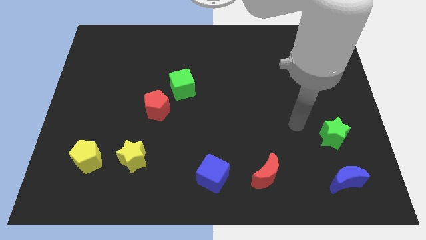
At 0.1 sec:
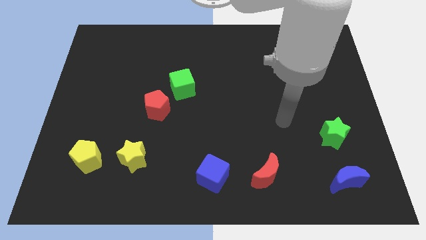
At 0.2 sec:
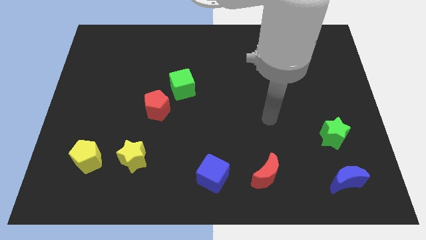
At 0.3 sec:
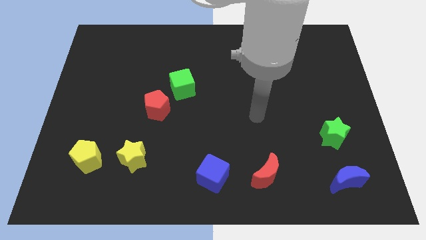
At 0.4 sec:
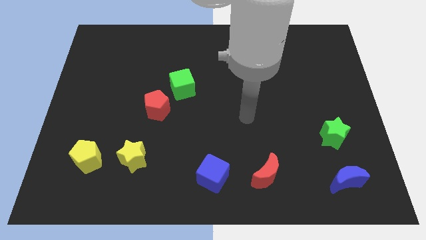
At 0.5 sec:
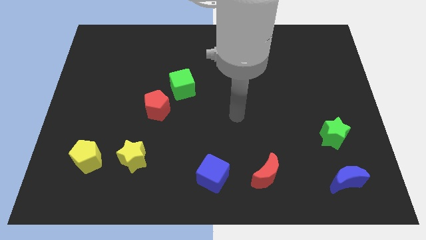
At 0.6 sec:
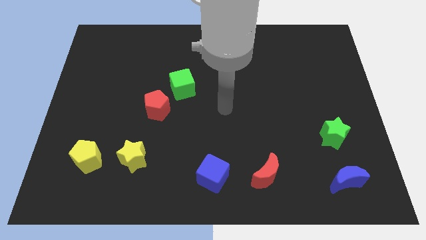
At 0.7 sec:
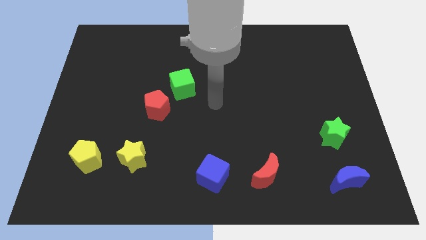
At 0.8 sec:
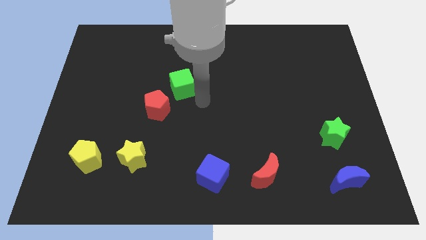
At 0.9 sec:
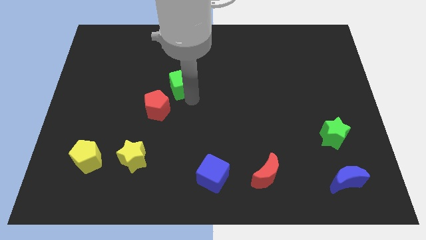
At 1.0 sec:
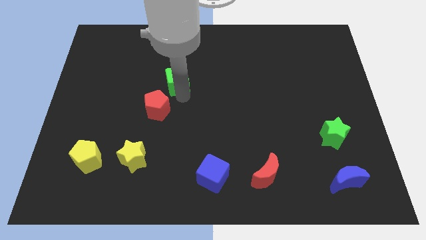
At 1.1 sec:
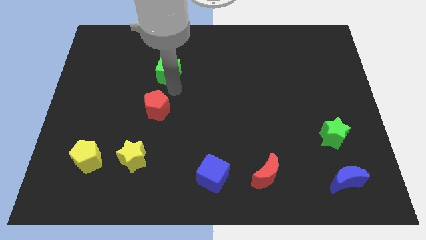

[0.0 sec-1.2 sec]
move the red pentagon away from the green cube

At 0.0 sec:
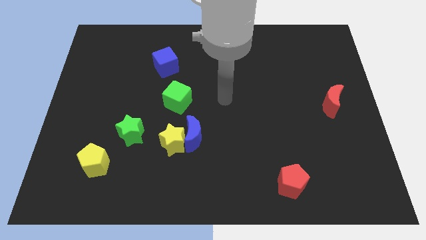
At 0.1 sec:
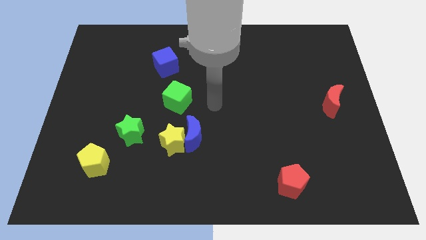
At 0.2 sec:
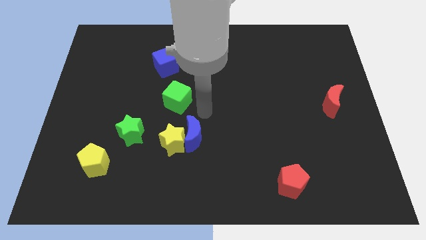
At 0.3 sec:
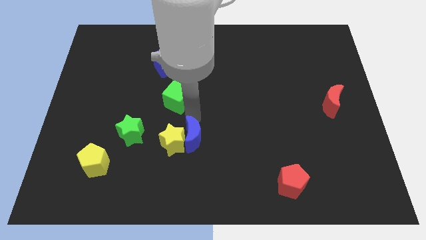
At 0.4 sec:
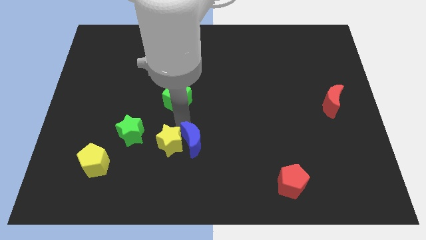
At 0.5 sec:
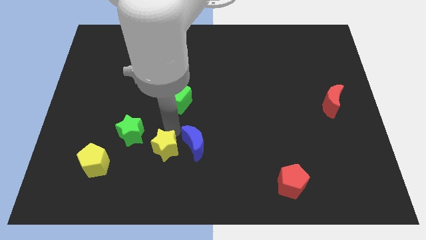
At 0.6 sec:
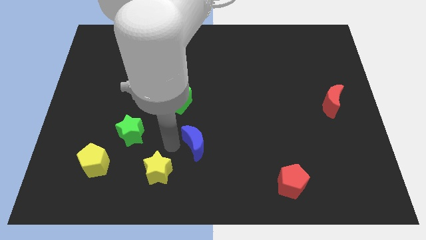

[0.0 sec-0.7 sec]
pull the blue moon apart from the yellow star

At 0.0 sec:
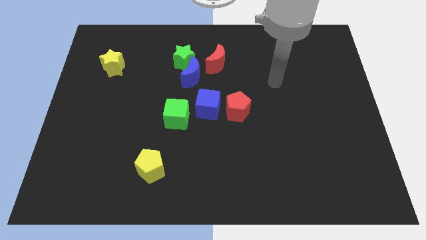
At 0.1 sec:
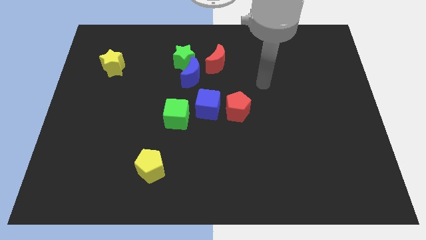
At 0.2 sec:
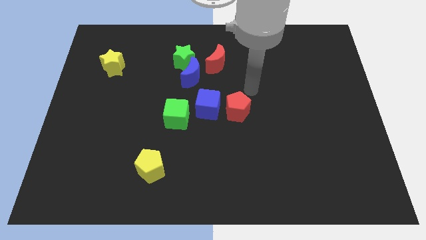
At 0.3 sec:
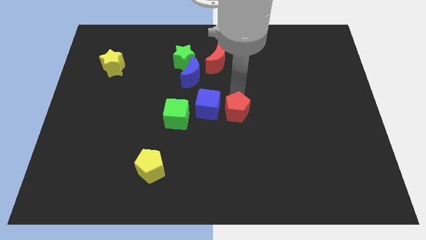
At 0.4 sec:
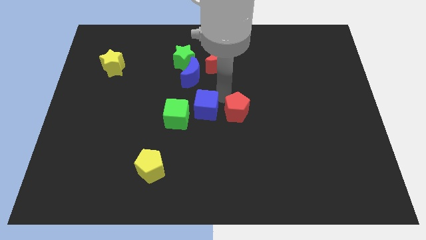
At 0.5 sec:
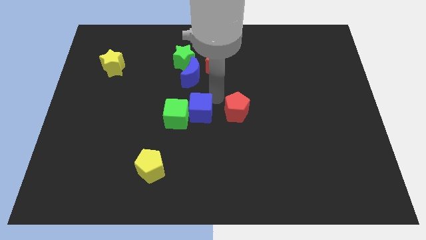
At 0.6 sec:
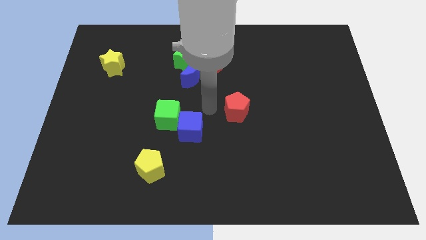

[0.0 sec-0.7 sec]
separate the red pentagon from the blue cube

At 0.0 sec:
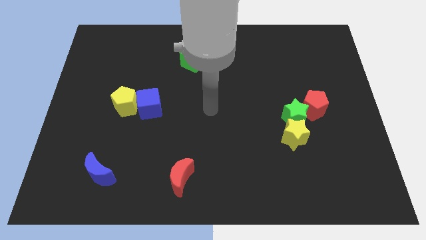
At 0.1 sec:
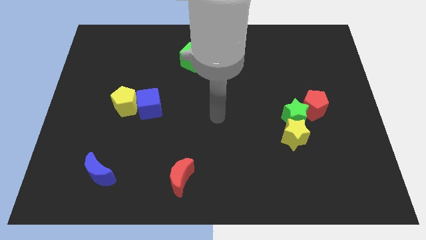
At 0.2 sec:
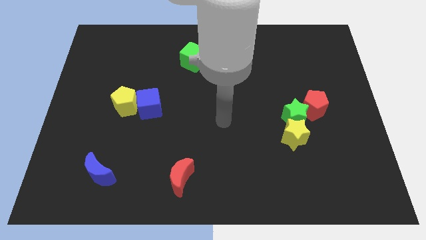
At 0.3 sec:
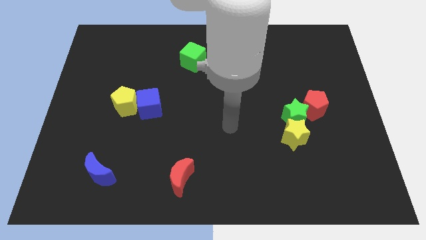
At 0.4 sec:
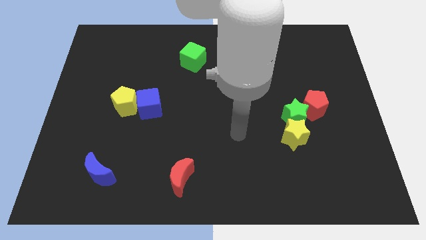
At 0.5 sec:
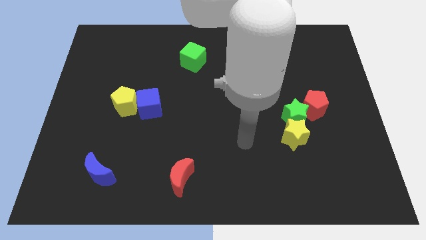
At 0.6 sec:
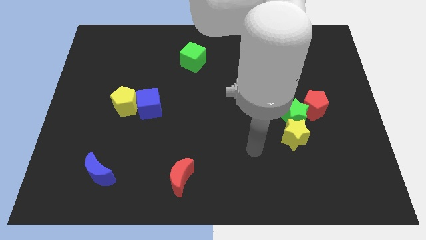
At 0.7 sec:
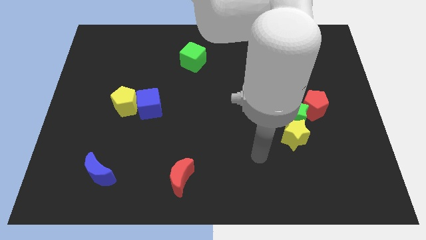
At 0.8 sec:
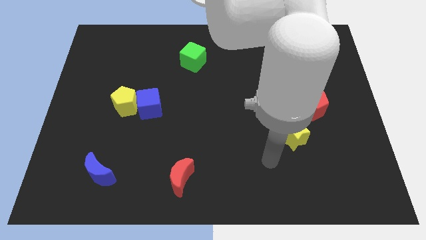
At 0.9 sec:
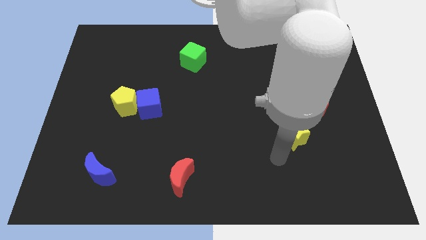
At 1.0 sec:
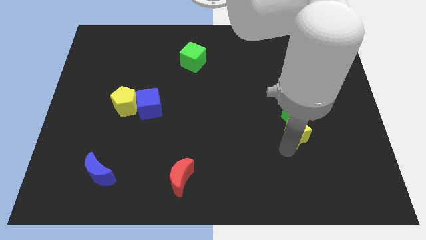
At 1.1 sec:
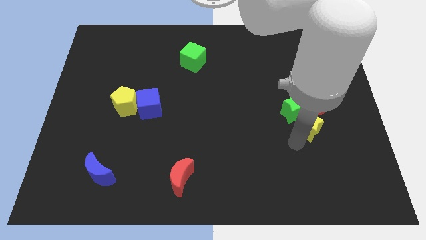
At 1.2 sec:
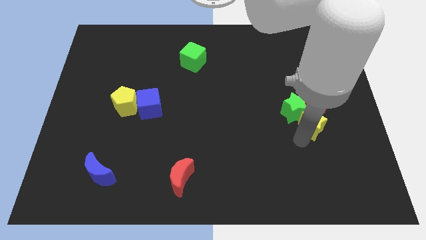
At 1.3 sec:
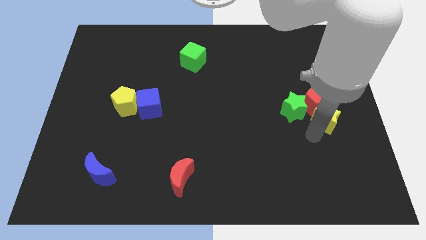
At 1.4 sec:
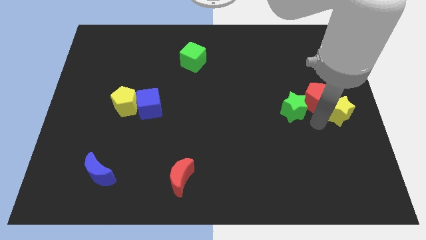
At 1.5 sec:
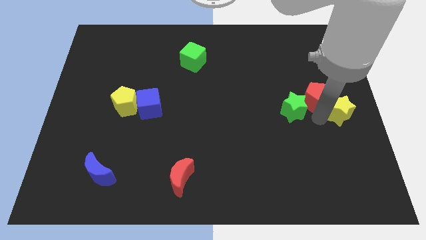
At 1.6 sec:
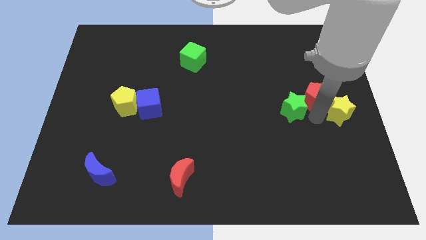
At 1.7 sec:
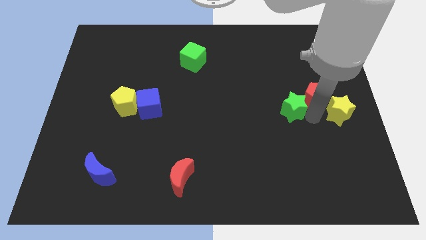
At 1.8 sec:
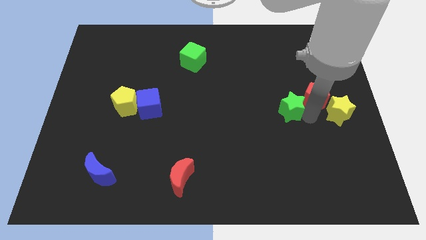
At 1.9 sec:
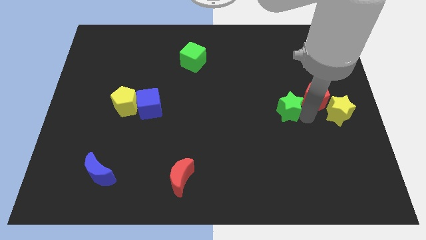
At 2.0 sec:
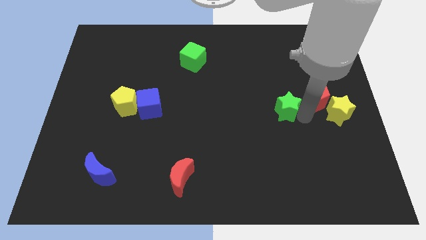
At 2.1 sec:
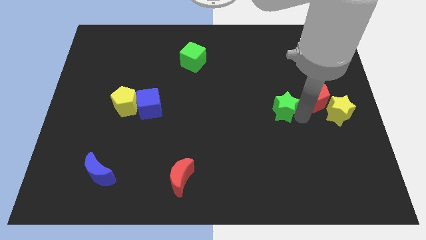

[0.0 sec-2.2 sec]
pull the green star apart from the yellow star and red pentagon

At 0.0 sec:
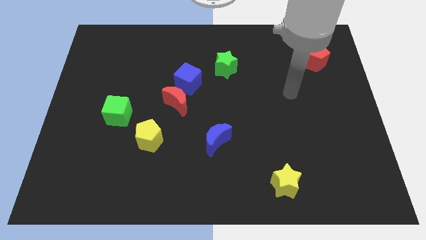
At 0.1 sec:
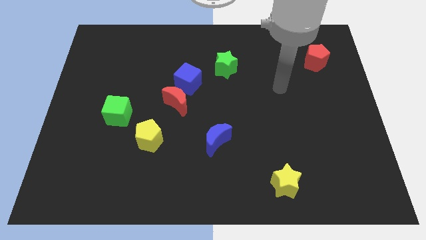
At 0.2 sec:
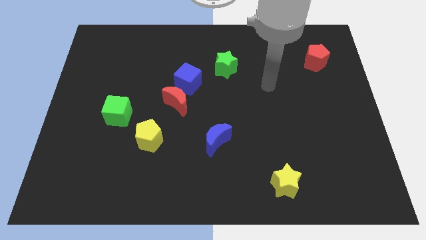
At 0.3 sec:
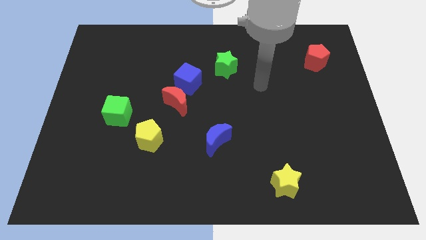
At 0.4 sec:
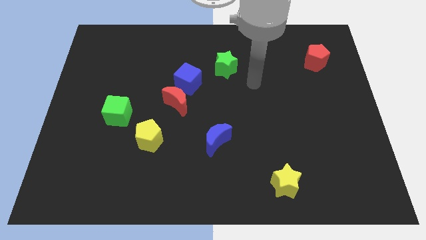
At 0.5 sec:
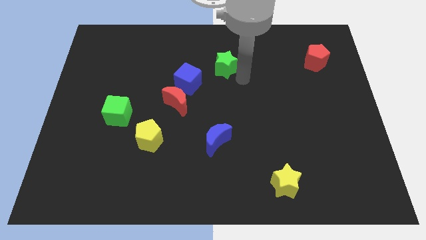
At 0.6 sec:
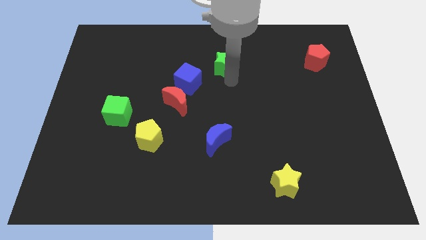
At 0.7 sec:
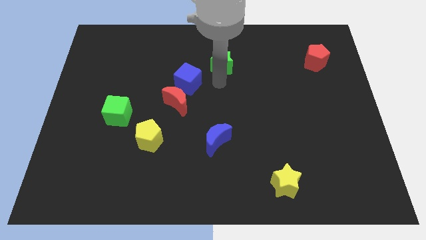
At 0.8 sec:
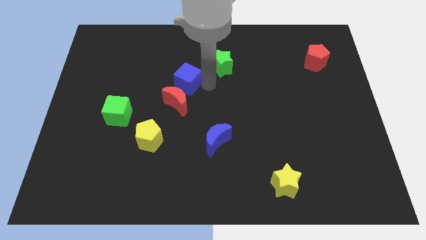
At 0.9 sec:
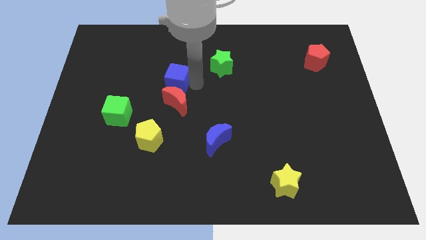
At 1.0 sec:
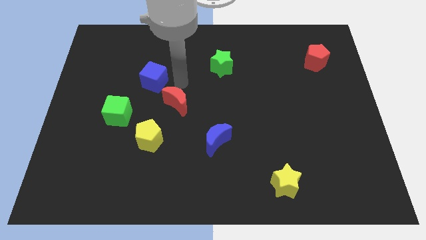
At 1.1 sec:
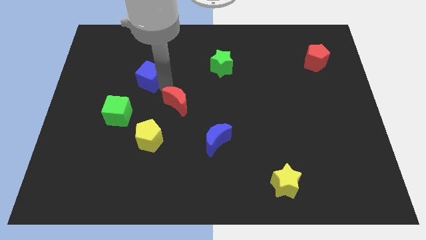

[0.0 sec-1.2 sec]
separate the red moon from the blue cube

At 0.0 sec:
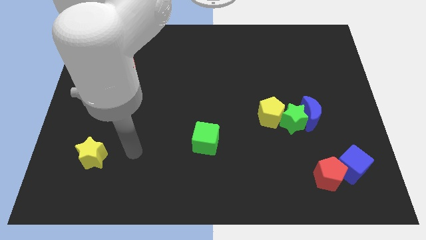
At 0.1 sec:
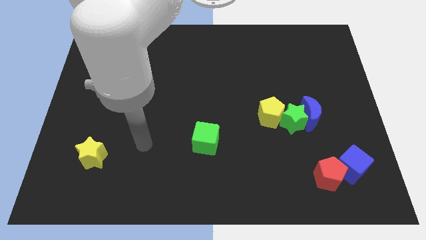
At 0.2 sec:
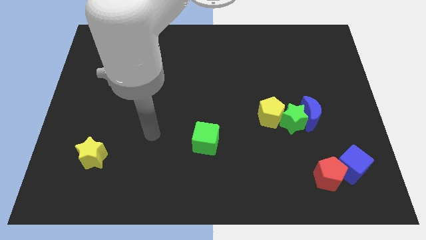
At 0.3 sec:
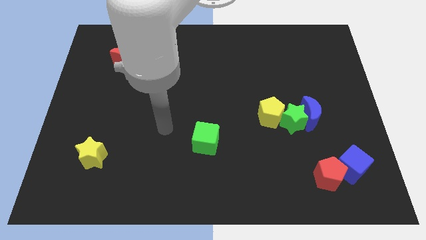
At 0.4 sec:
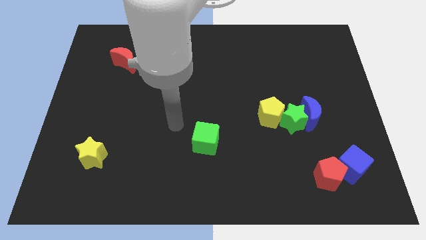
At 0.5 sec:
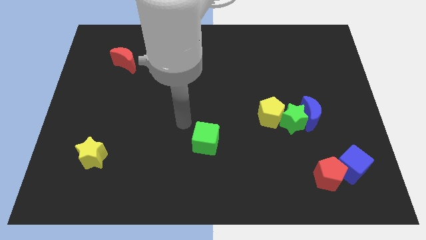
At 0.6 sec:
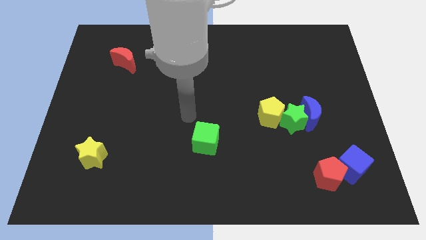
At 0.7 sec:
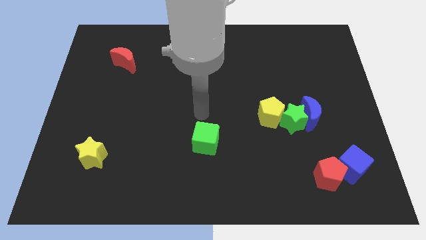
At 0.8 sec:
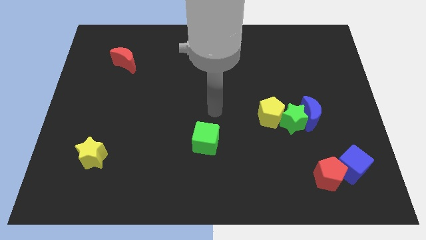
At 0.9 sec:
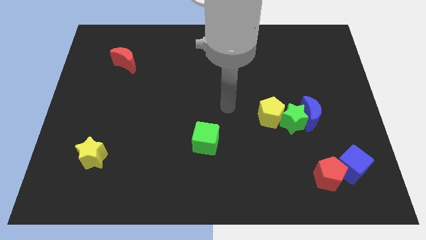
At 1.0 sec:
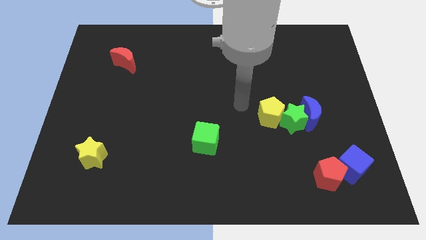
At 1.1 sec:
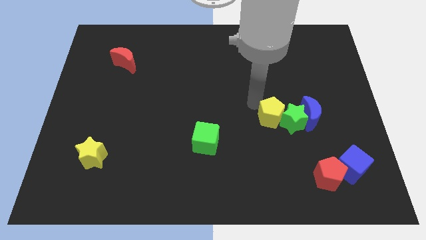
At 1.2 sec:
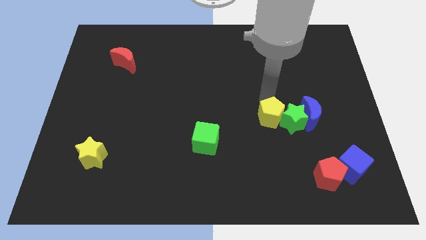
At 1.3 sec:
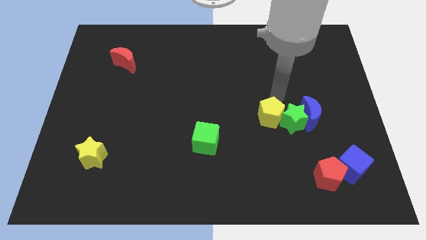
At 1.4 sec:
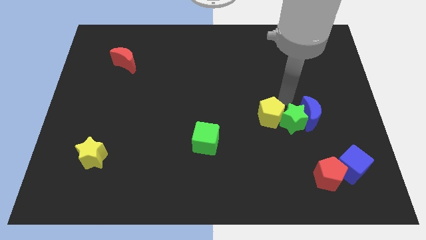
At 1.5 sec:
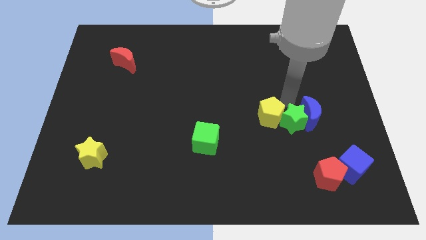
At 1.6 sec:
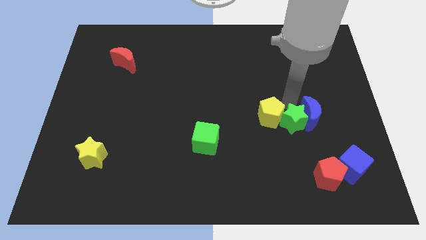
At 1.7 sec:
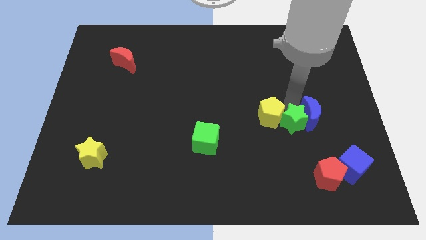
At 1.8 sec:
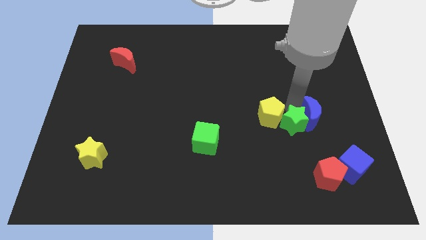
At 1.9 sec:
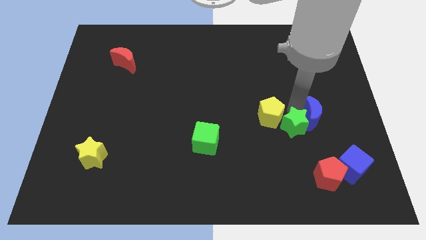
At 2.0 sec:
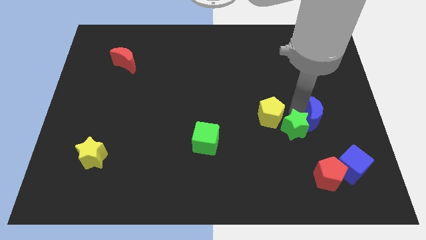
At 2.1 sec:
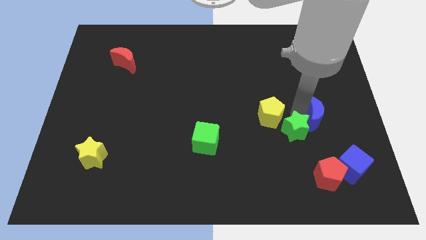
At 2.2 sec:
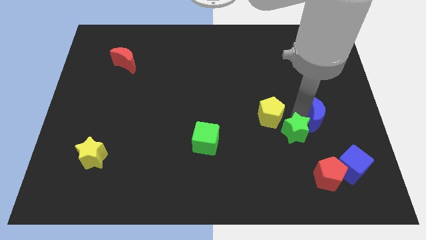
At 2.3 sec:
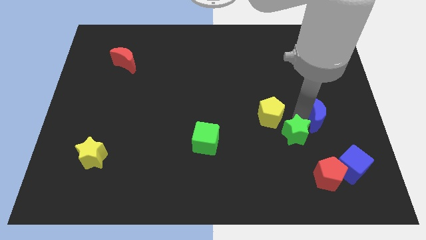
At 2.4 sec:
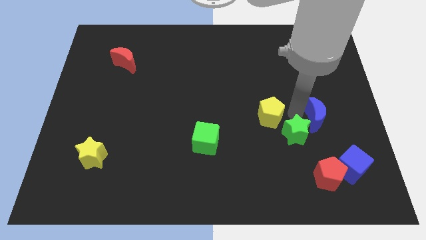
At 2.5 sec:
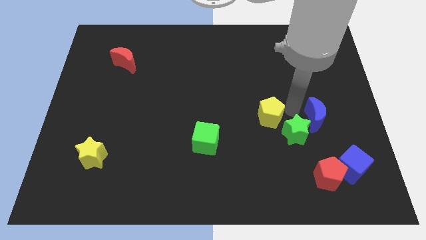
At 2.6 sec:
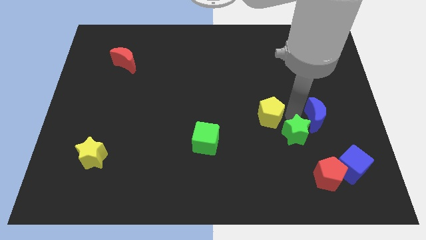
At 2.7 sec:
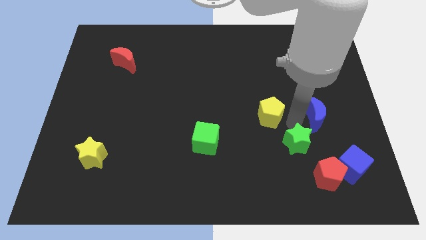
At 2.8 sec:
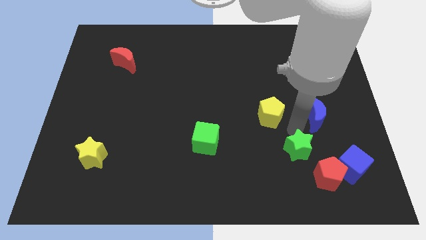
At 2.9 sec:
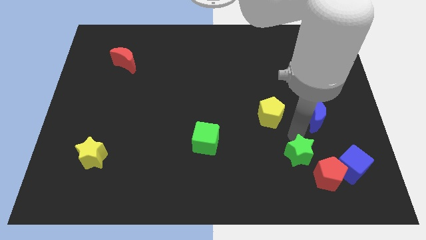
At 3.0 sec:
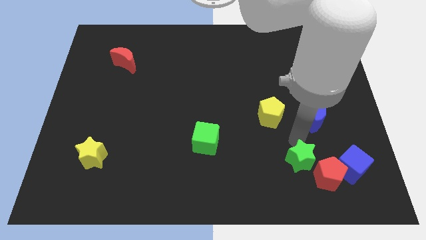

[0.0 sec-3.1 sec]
separate the green star from the blue moon and yellow pentagon

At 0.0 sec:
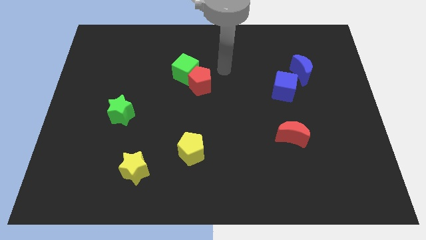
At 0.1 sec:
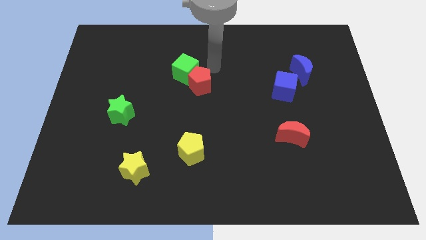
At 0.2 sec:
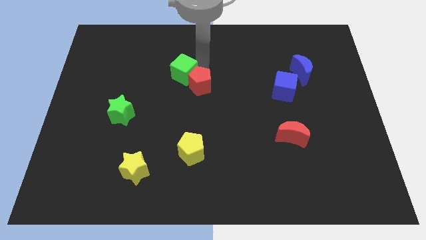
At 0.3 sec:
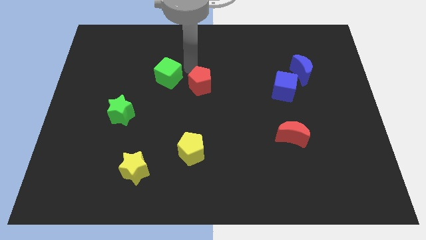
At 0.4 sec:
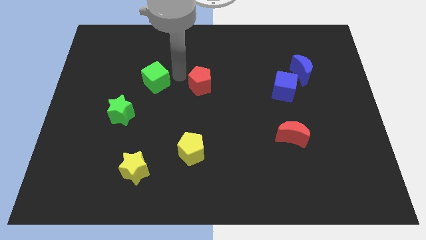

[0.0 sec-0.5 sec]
pull the red pentagon apart from the green cube
